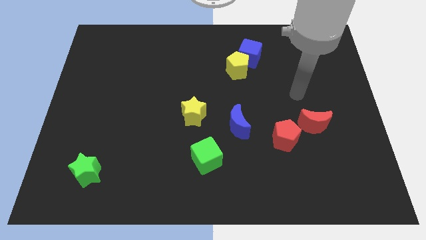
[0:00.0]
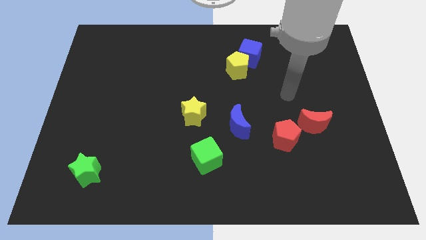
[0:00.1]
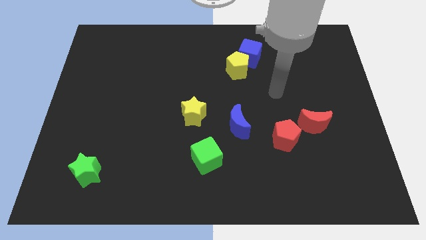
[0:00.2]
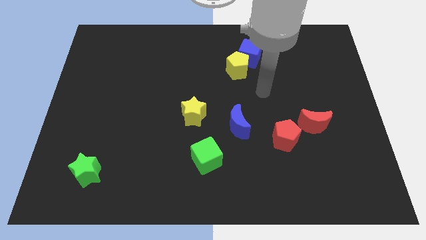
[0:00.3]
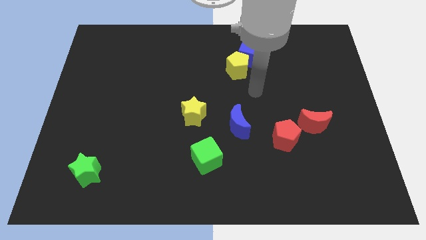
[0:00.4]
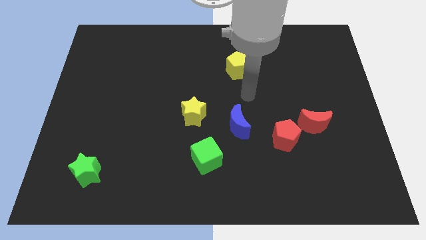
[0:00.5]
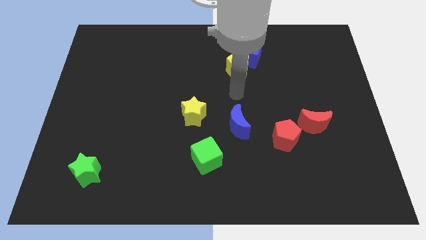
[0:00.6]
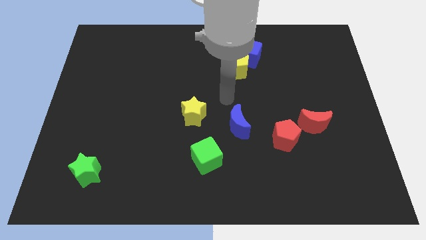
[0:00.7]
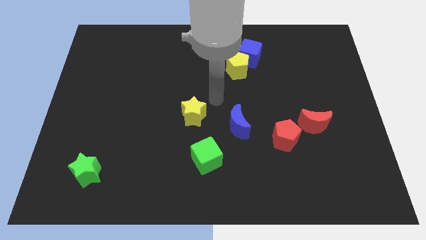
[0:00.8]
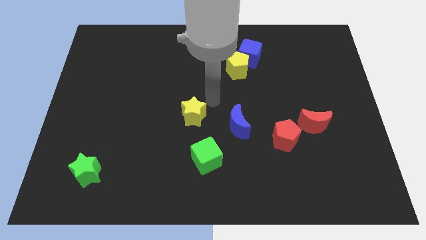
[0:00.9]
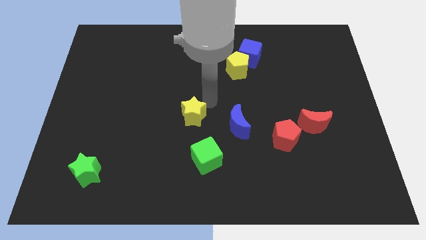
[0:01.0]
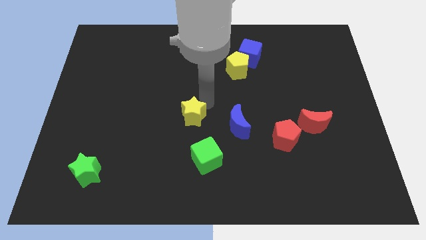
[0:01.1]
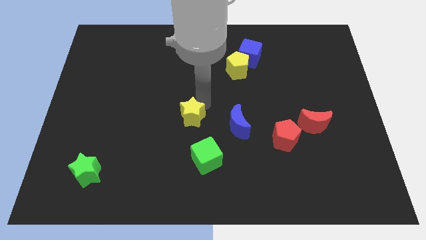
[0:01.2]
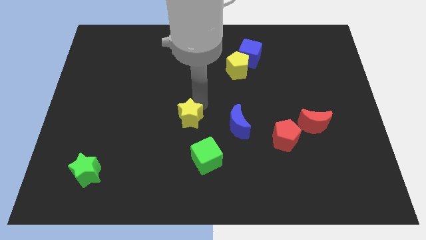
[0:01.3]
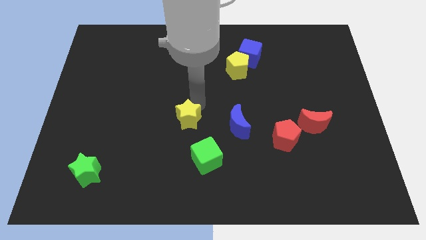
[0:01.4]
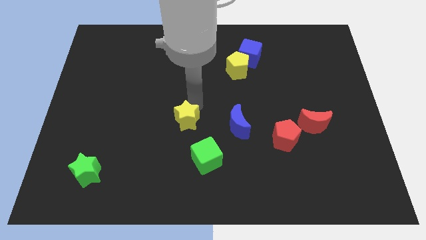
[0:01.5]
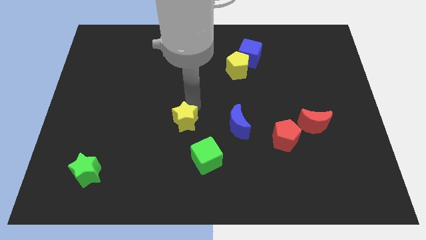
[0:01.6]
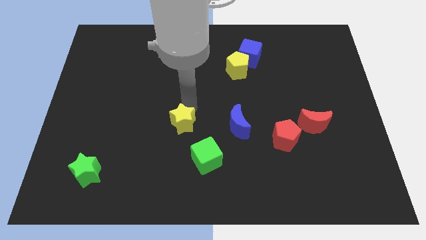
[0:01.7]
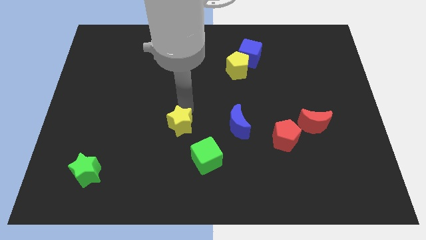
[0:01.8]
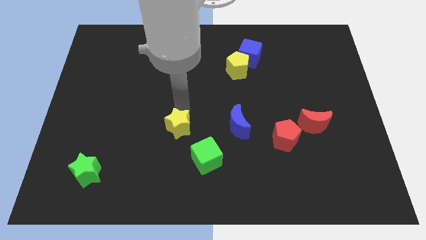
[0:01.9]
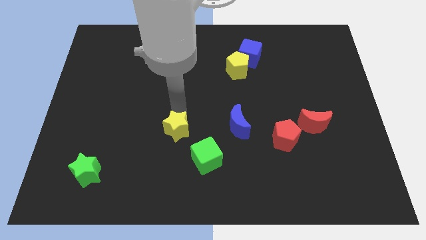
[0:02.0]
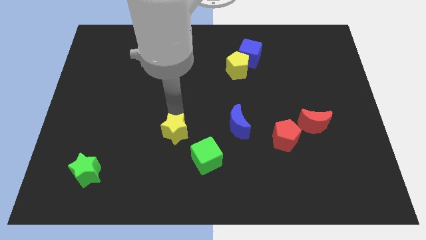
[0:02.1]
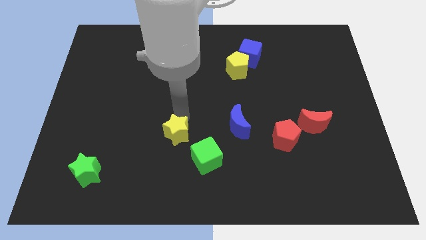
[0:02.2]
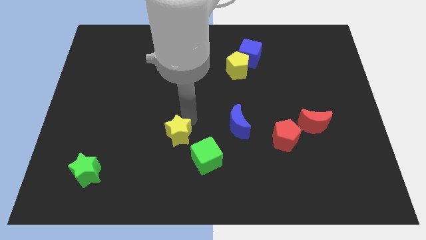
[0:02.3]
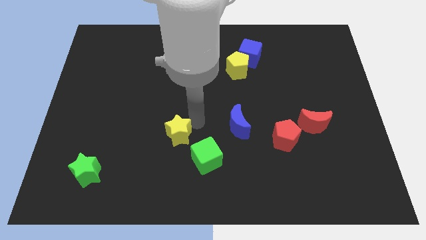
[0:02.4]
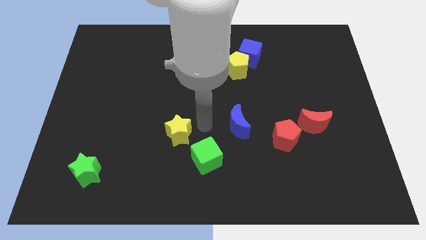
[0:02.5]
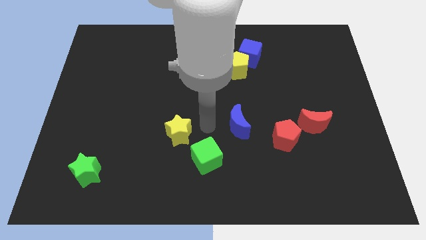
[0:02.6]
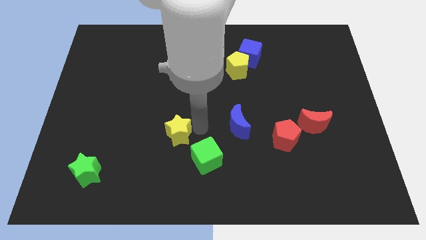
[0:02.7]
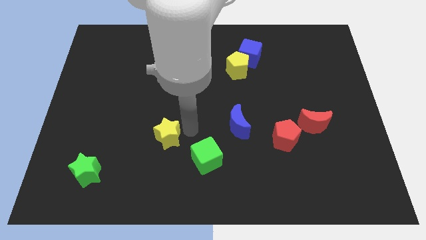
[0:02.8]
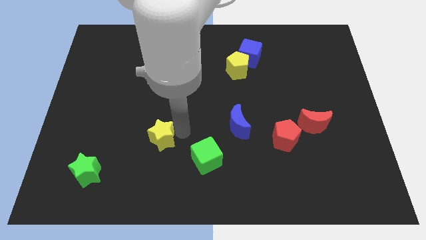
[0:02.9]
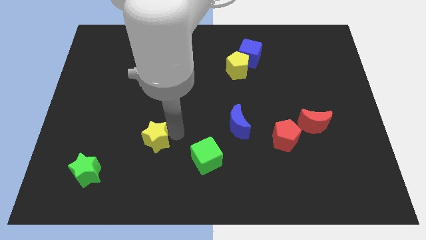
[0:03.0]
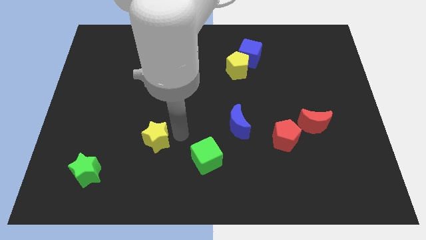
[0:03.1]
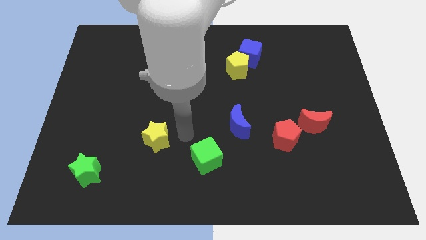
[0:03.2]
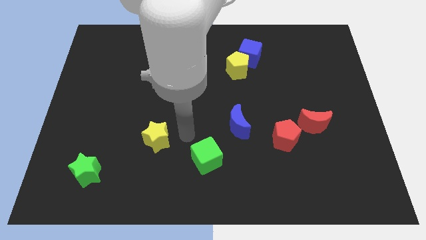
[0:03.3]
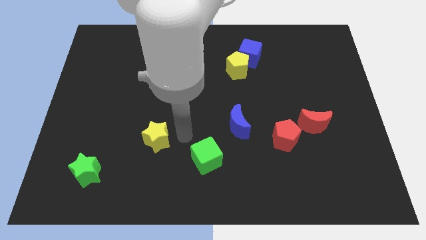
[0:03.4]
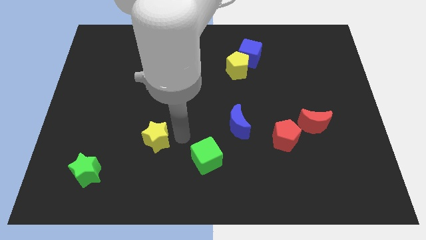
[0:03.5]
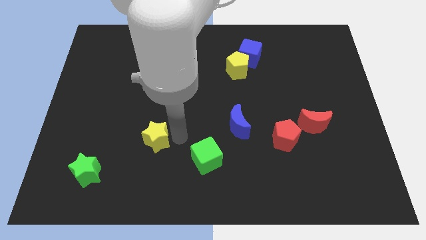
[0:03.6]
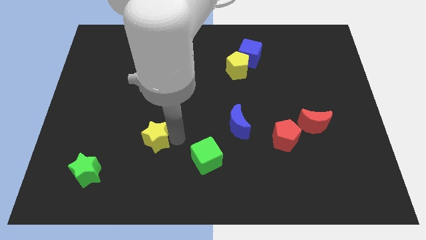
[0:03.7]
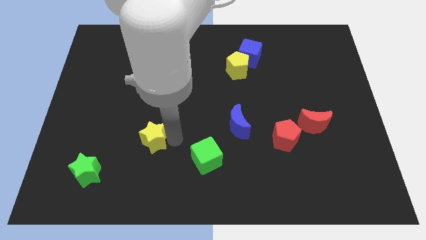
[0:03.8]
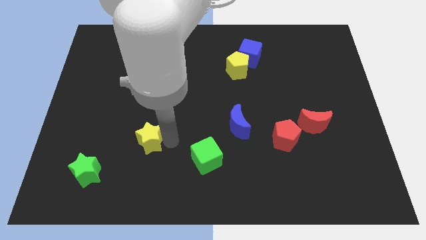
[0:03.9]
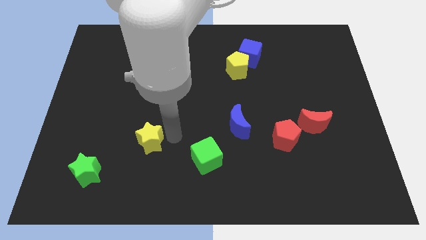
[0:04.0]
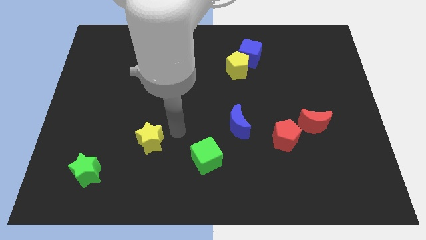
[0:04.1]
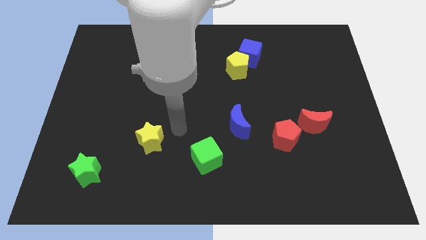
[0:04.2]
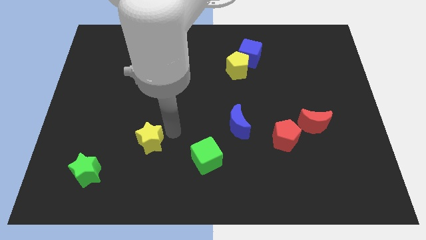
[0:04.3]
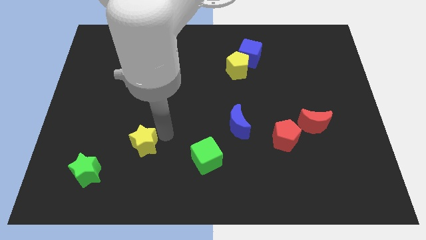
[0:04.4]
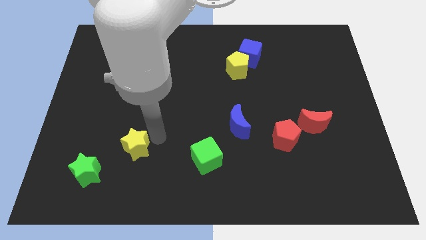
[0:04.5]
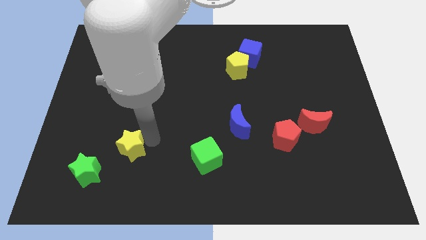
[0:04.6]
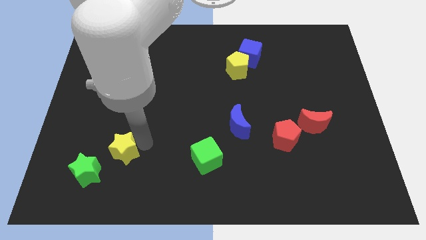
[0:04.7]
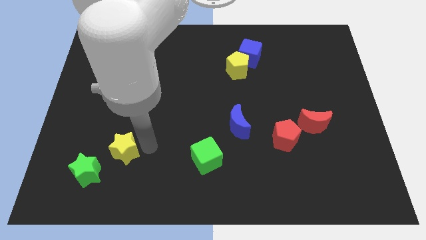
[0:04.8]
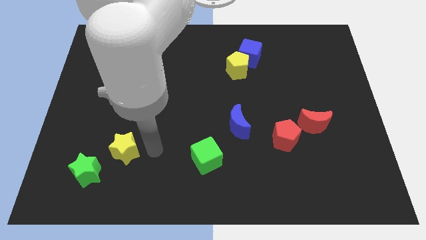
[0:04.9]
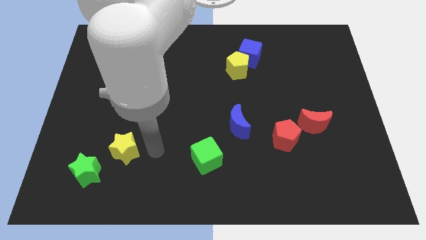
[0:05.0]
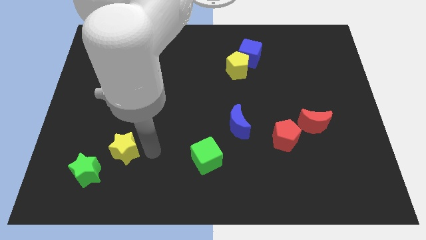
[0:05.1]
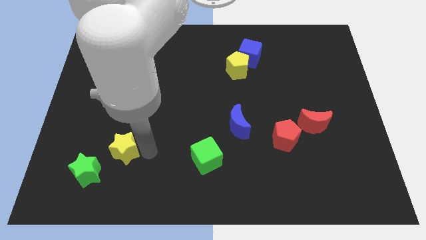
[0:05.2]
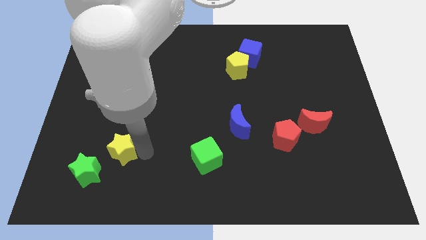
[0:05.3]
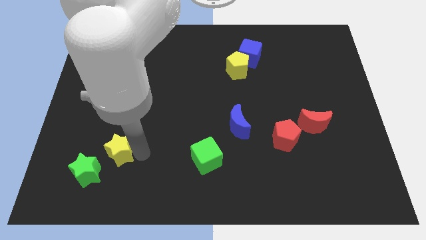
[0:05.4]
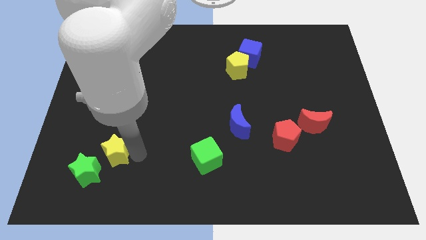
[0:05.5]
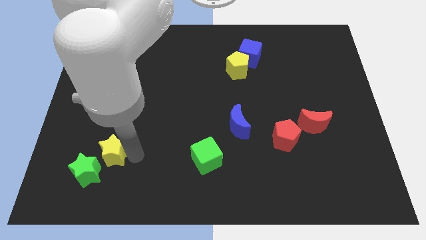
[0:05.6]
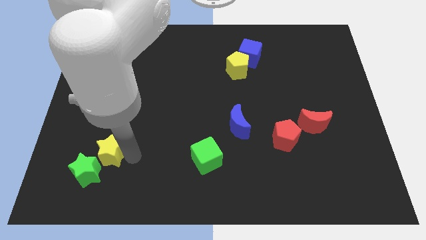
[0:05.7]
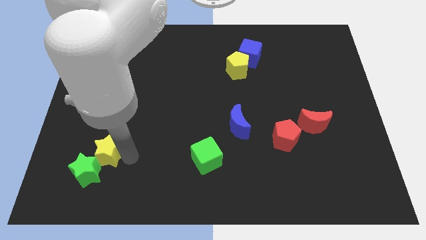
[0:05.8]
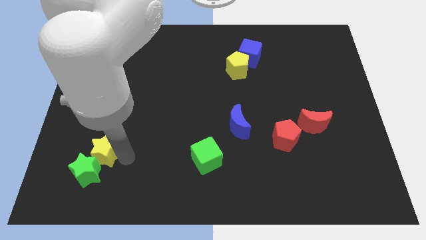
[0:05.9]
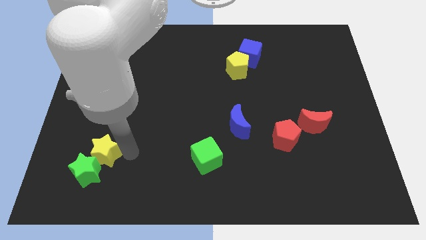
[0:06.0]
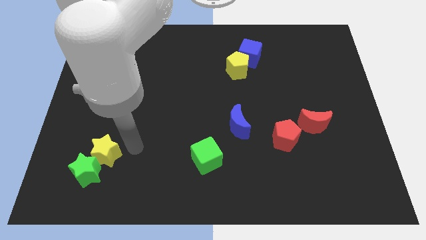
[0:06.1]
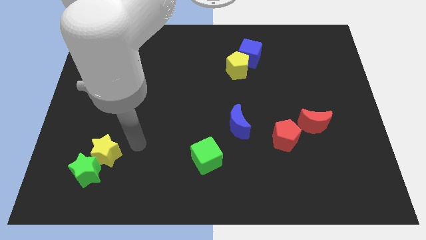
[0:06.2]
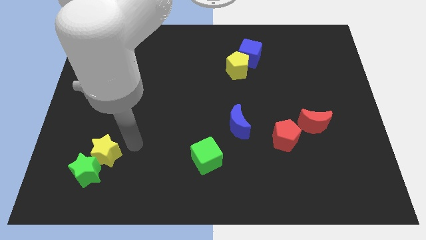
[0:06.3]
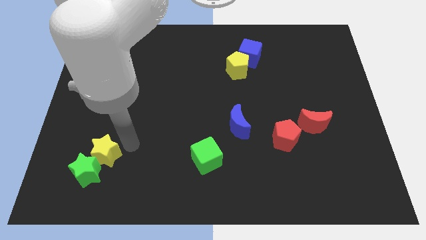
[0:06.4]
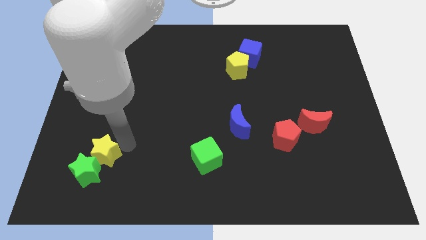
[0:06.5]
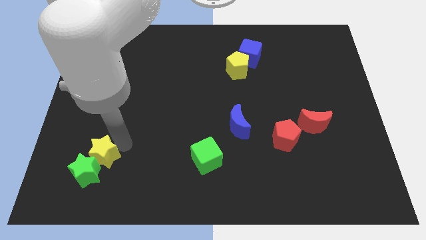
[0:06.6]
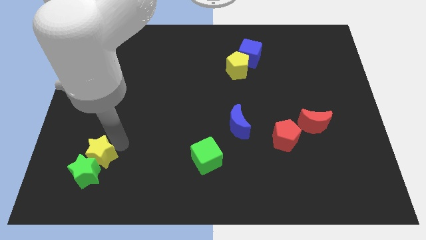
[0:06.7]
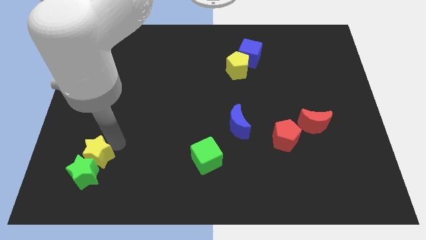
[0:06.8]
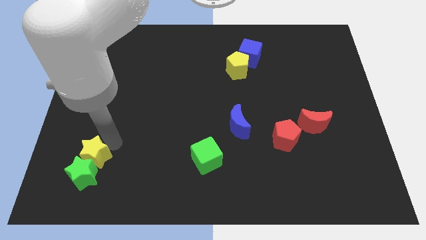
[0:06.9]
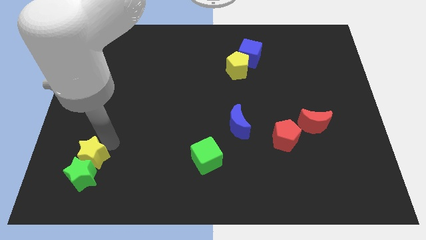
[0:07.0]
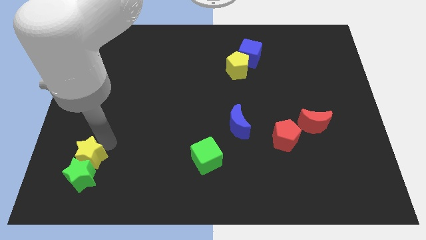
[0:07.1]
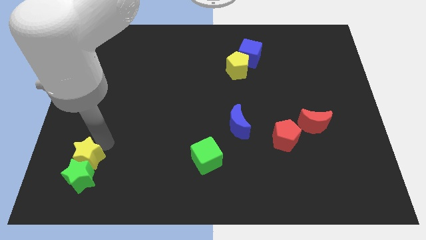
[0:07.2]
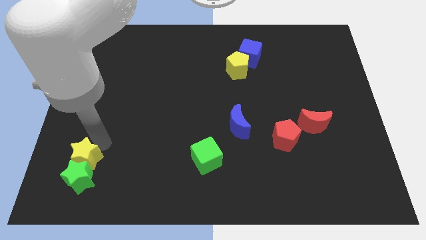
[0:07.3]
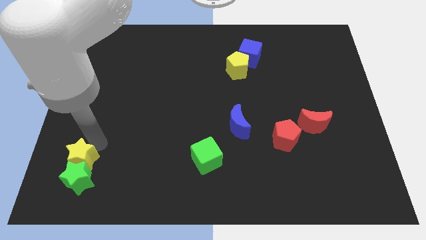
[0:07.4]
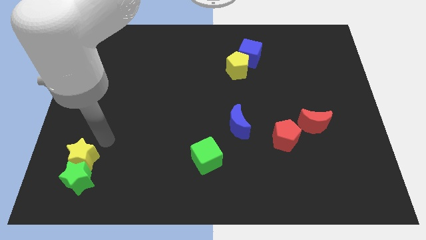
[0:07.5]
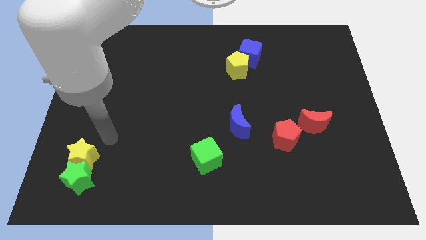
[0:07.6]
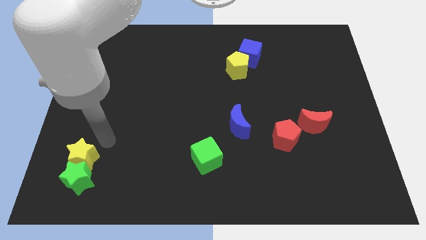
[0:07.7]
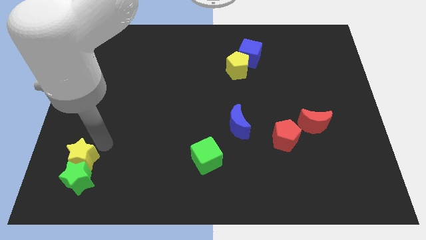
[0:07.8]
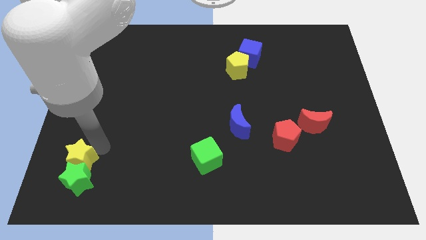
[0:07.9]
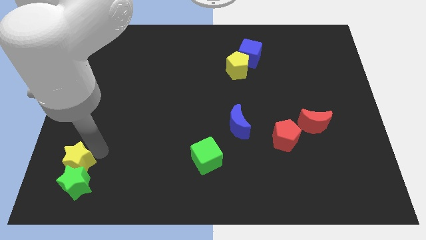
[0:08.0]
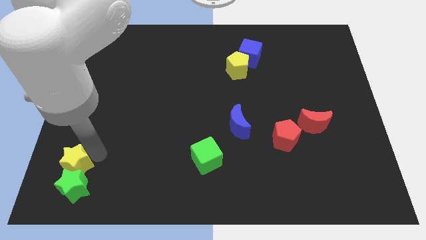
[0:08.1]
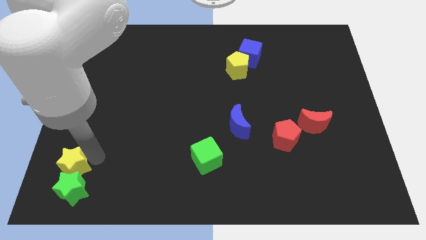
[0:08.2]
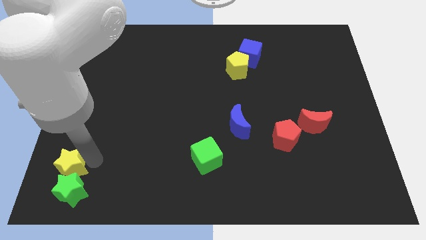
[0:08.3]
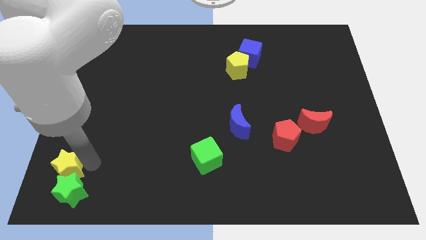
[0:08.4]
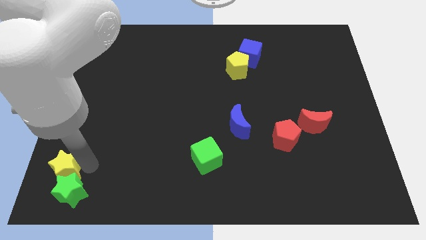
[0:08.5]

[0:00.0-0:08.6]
put the yellow star to the bottom left corner
